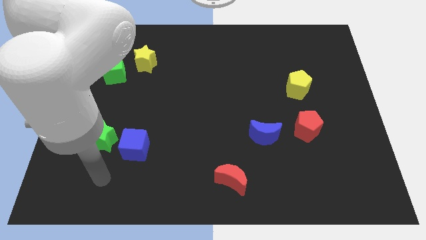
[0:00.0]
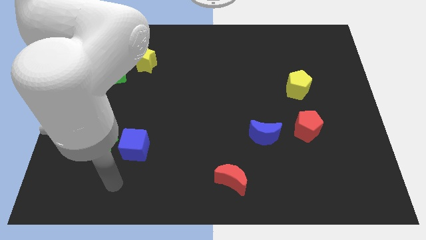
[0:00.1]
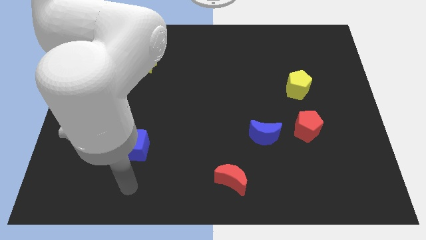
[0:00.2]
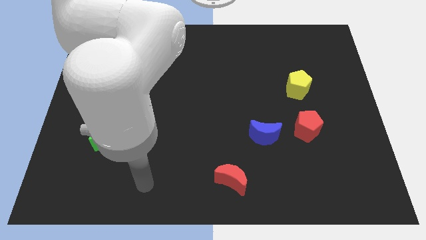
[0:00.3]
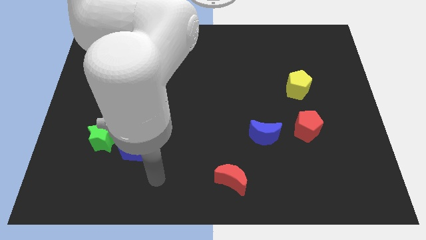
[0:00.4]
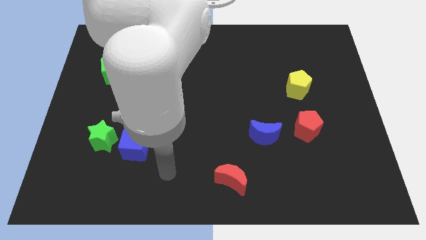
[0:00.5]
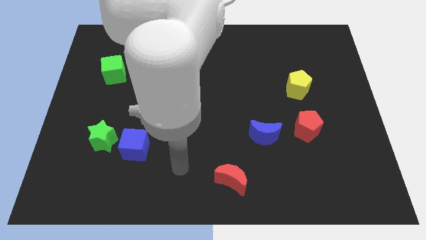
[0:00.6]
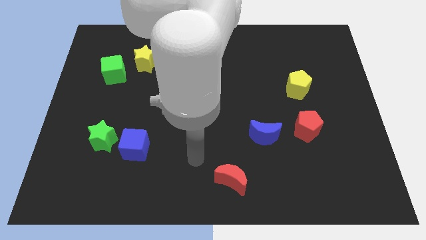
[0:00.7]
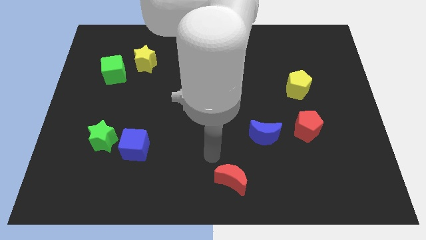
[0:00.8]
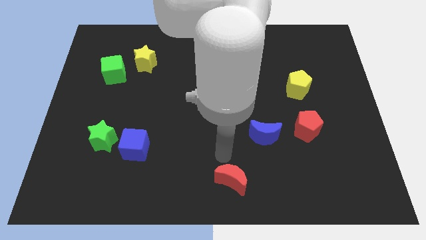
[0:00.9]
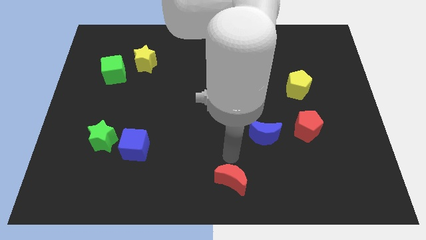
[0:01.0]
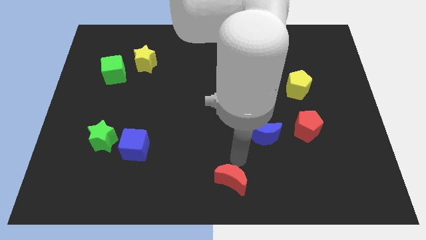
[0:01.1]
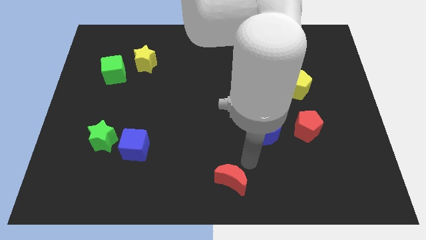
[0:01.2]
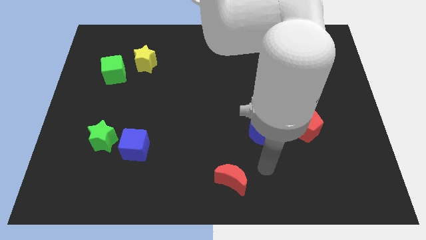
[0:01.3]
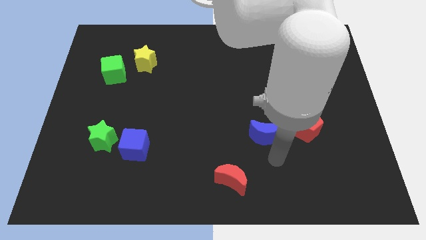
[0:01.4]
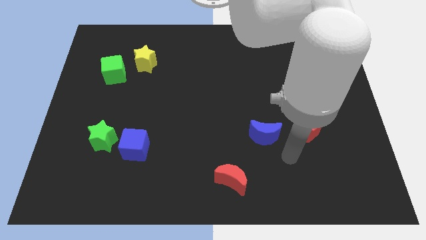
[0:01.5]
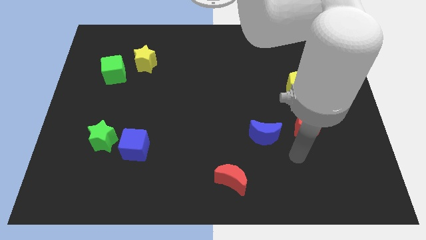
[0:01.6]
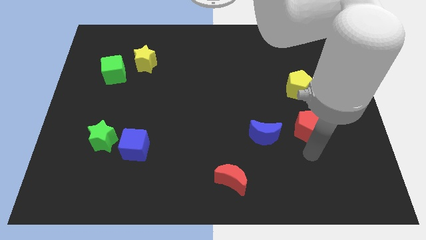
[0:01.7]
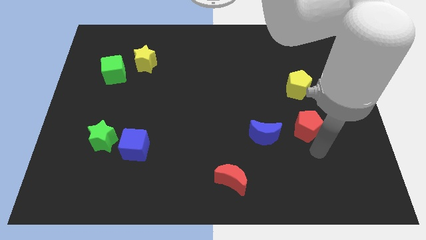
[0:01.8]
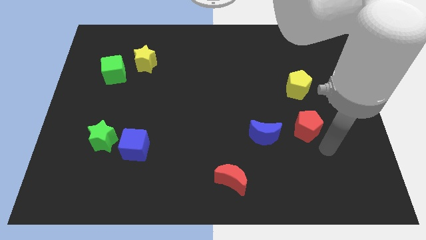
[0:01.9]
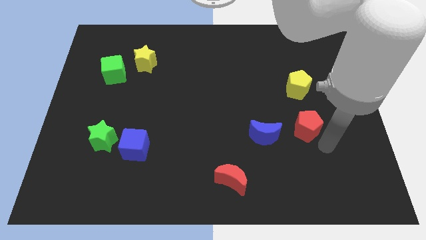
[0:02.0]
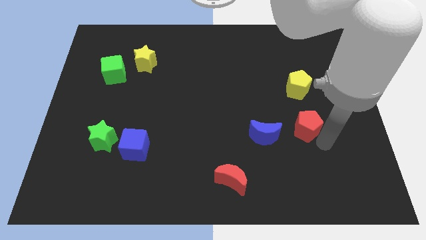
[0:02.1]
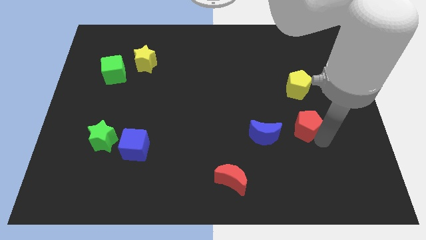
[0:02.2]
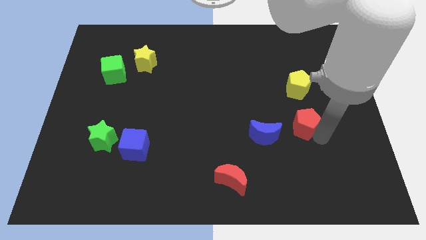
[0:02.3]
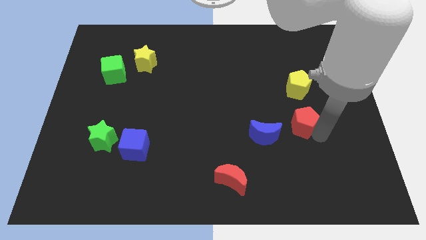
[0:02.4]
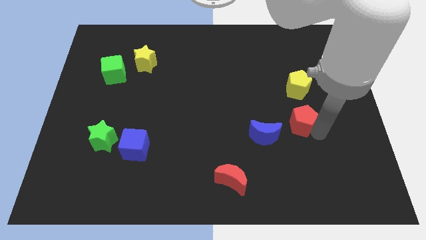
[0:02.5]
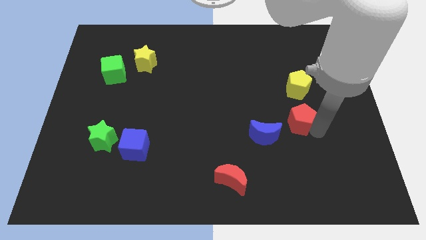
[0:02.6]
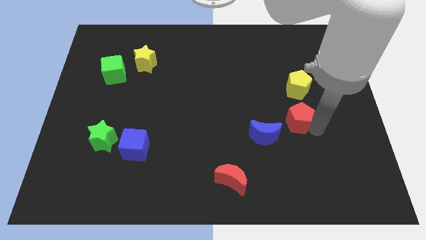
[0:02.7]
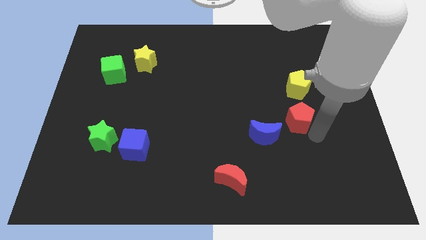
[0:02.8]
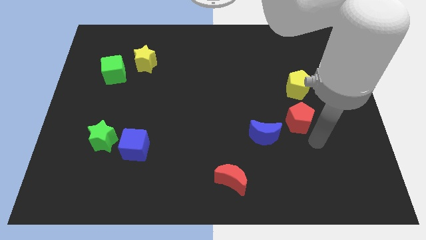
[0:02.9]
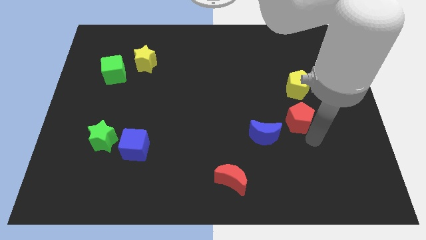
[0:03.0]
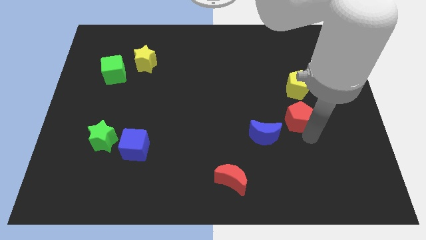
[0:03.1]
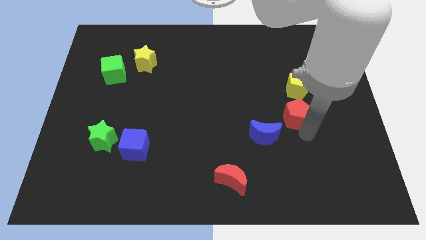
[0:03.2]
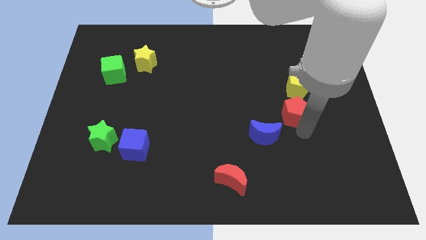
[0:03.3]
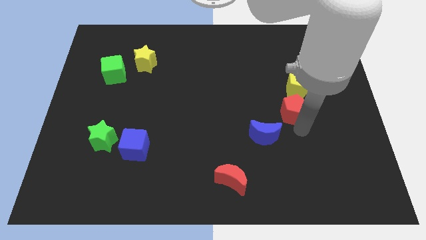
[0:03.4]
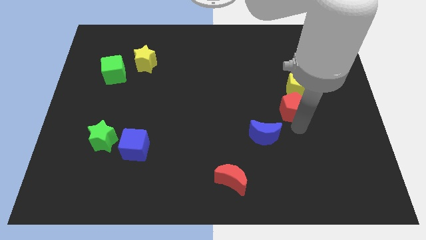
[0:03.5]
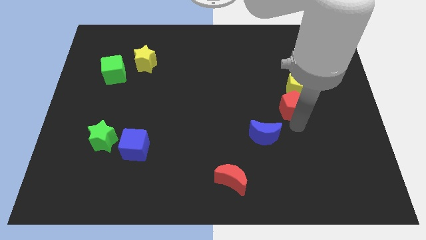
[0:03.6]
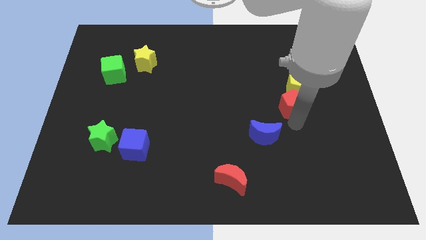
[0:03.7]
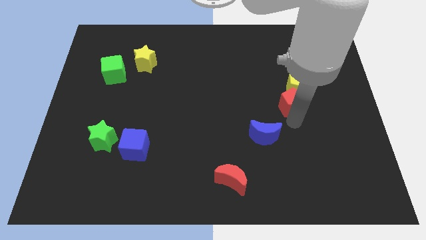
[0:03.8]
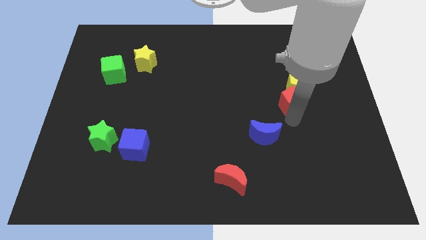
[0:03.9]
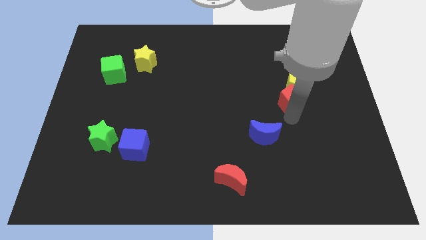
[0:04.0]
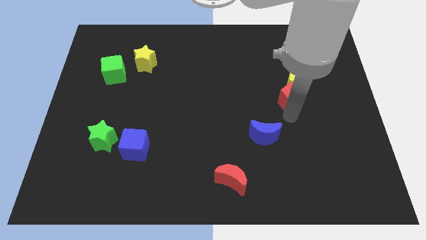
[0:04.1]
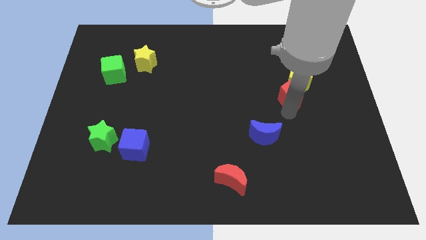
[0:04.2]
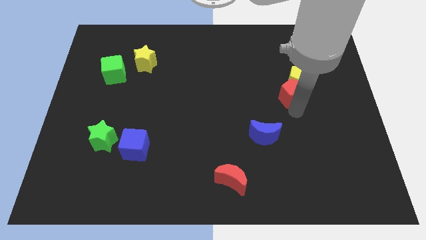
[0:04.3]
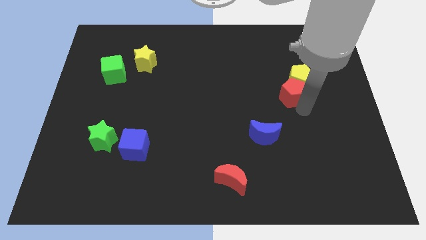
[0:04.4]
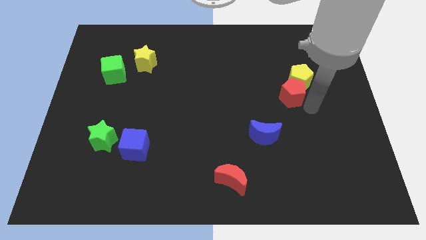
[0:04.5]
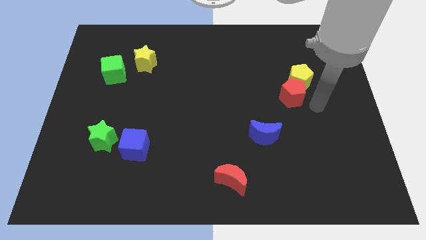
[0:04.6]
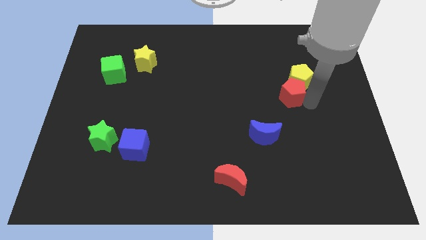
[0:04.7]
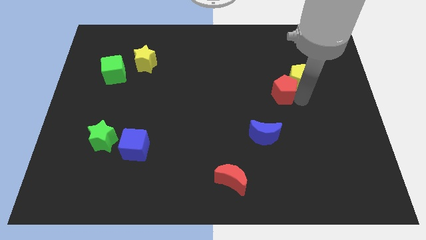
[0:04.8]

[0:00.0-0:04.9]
slide the red pentagon just left of the yellow pentagon

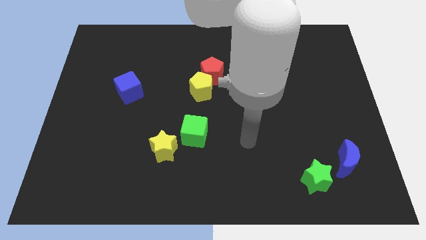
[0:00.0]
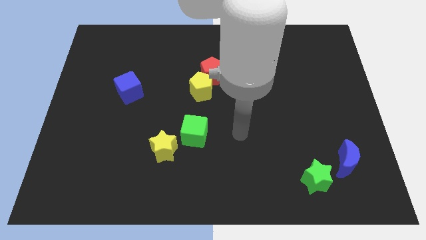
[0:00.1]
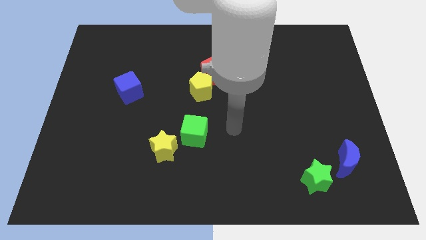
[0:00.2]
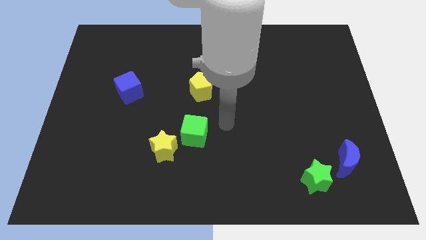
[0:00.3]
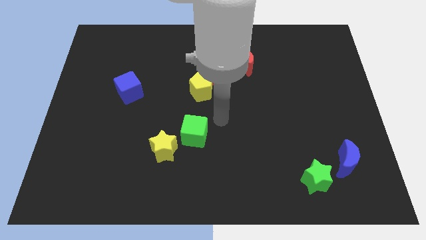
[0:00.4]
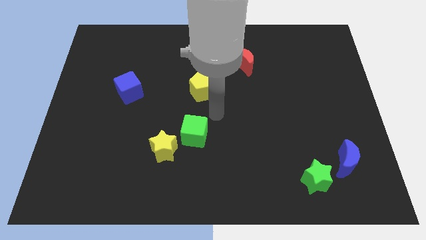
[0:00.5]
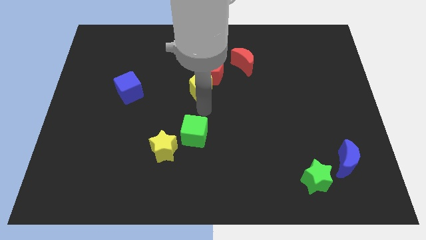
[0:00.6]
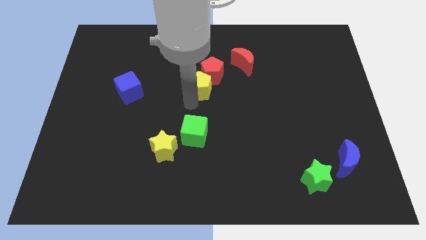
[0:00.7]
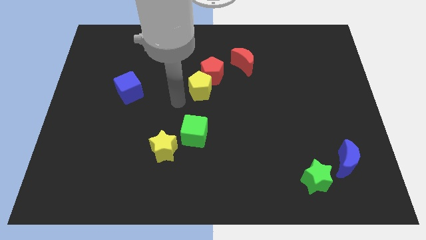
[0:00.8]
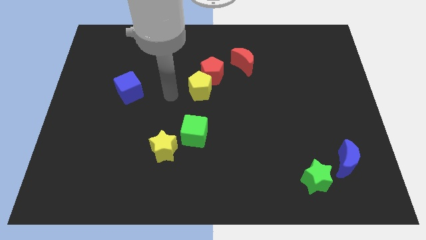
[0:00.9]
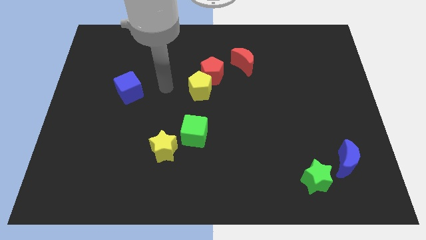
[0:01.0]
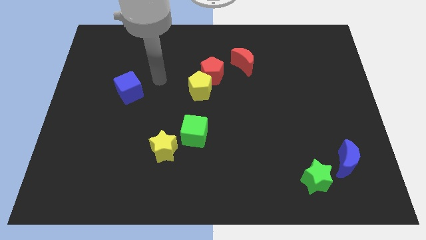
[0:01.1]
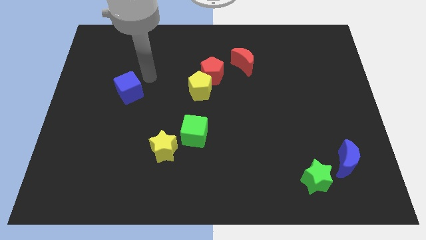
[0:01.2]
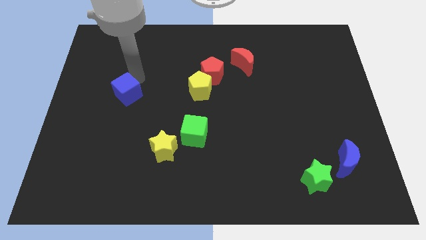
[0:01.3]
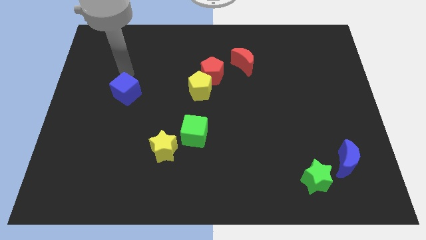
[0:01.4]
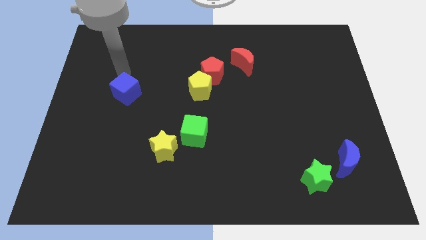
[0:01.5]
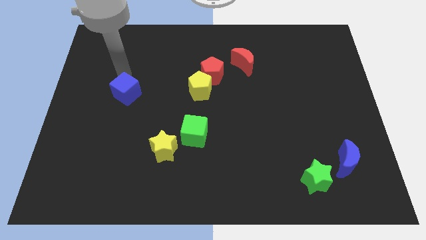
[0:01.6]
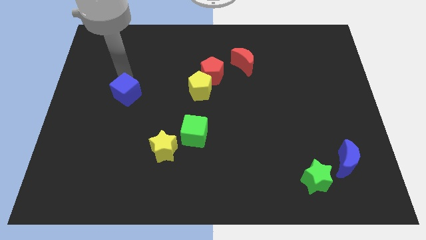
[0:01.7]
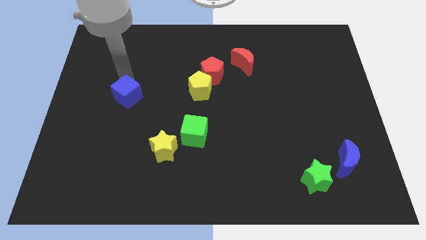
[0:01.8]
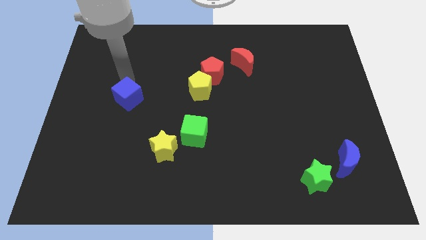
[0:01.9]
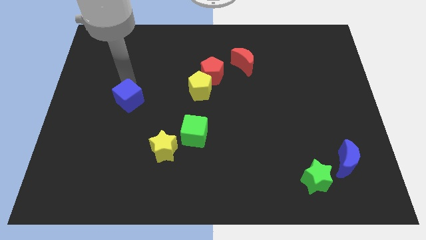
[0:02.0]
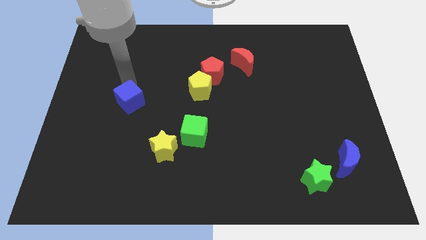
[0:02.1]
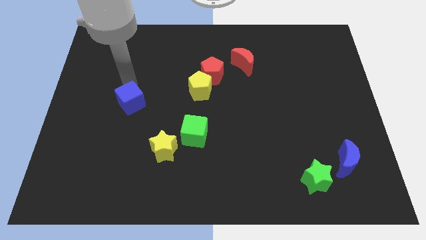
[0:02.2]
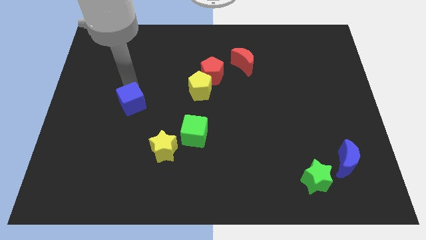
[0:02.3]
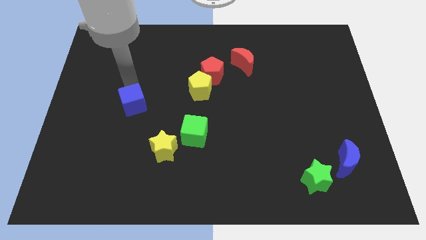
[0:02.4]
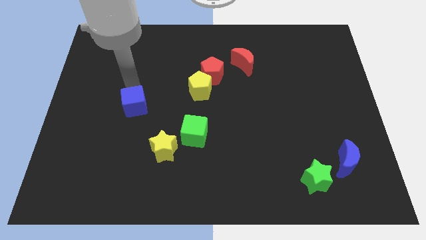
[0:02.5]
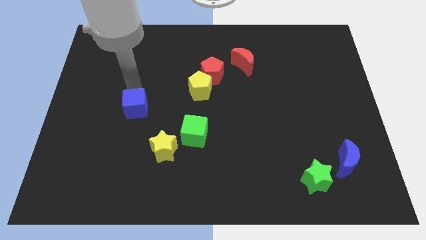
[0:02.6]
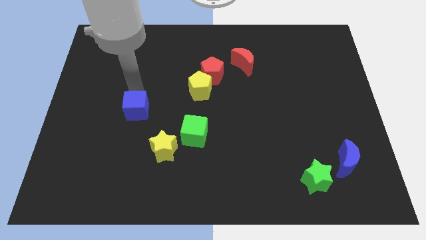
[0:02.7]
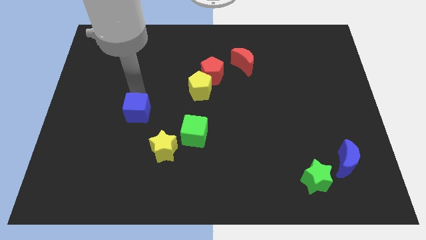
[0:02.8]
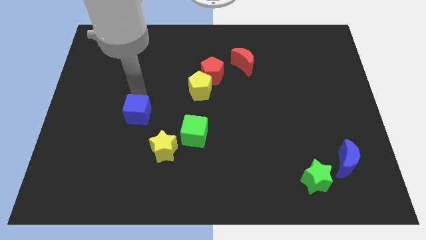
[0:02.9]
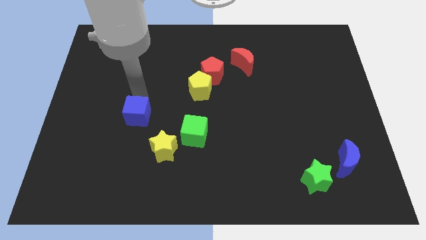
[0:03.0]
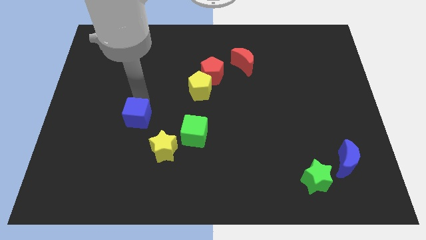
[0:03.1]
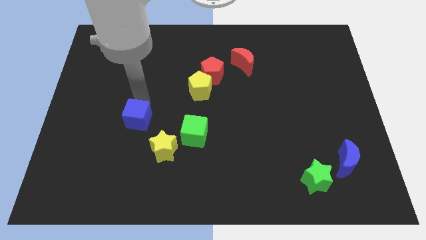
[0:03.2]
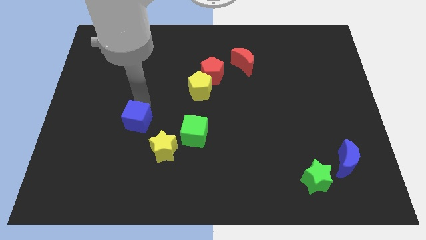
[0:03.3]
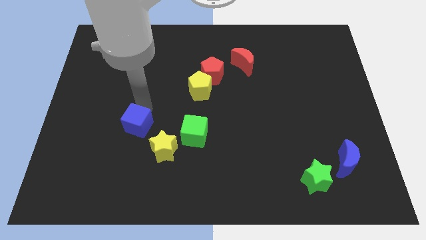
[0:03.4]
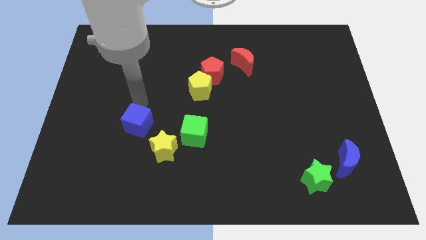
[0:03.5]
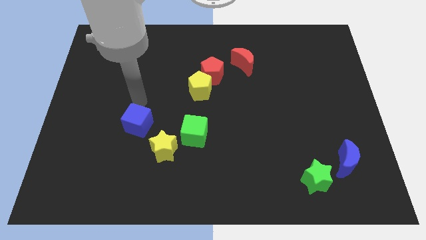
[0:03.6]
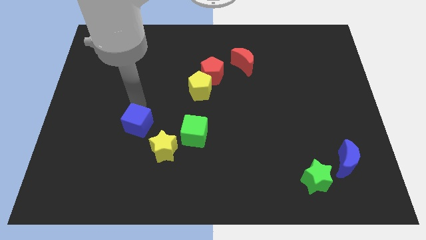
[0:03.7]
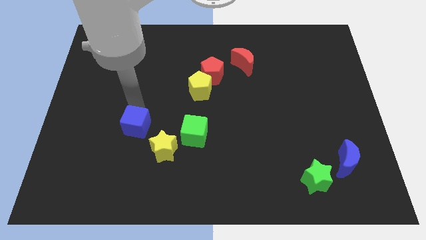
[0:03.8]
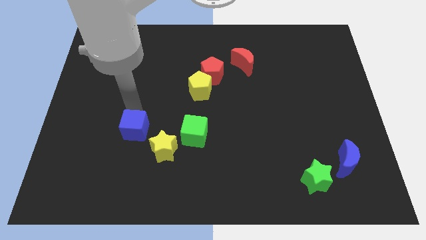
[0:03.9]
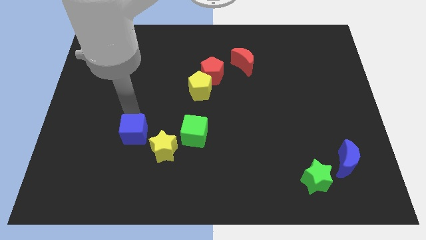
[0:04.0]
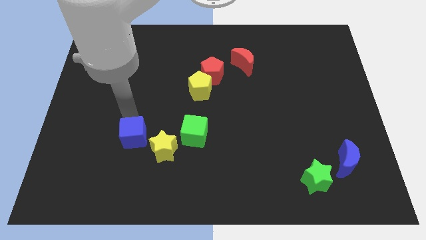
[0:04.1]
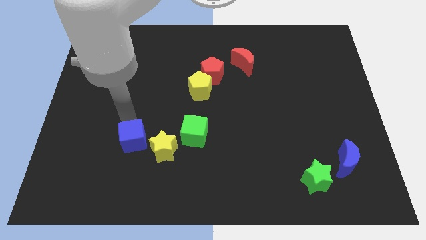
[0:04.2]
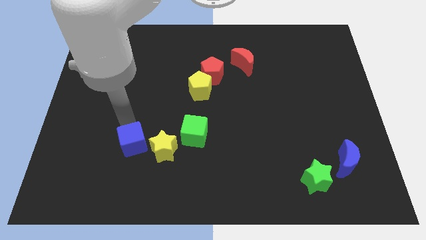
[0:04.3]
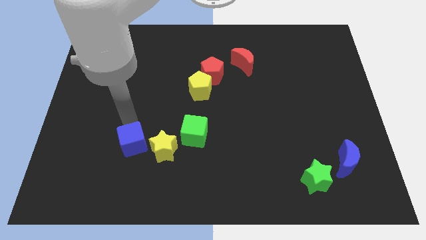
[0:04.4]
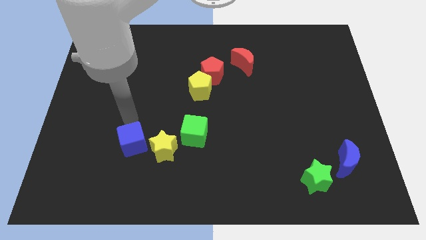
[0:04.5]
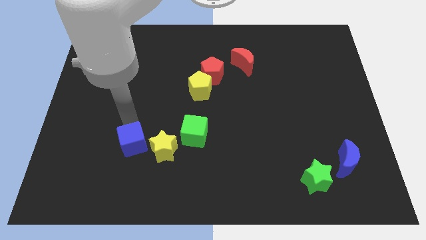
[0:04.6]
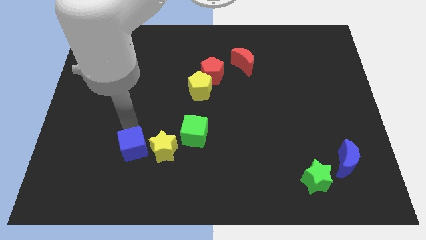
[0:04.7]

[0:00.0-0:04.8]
put the blue cube diagonally down and to the left of the yellow star
